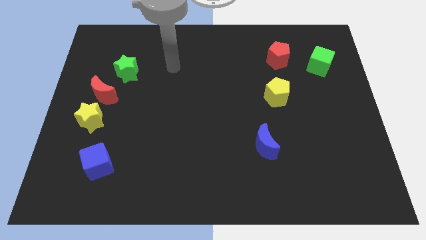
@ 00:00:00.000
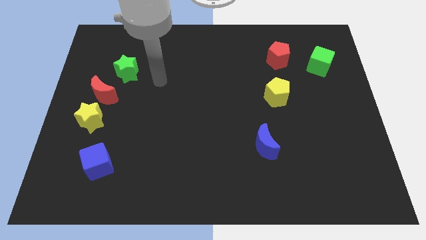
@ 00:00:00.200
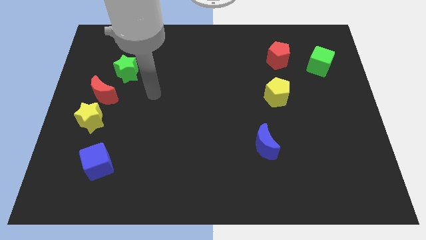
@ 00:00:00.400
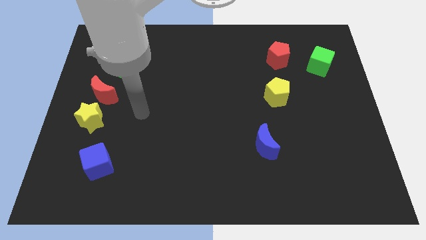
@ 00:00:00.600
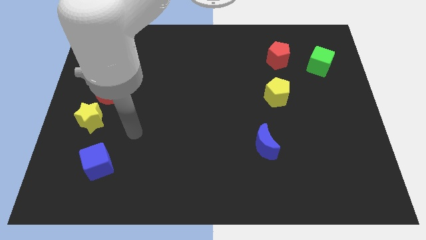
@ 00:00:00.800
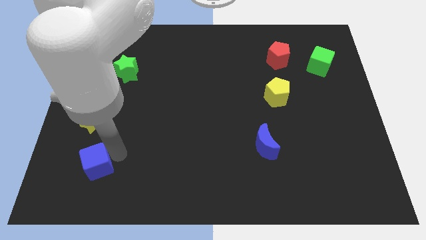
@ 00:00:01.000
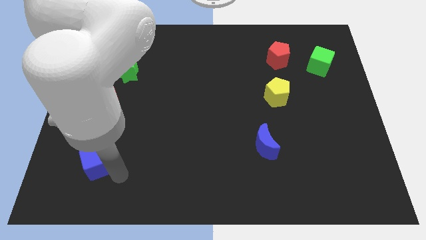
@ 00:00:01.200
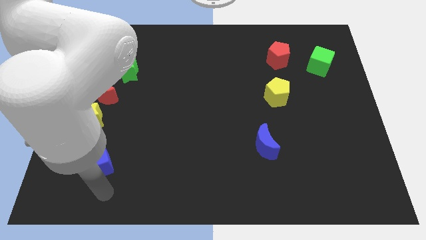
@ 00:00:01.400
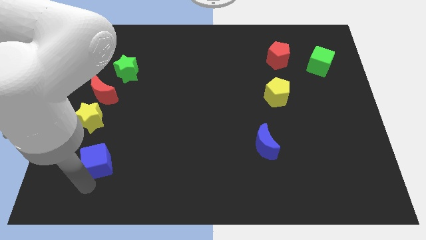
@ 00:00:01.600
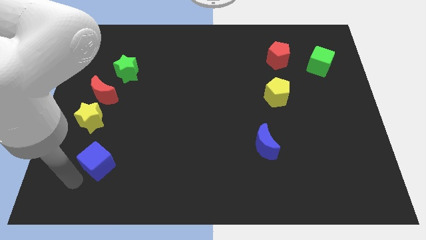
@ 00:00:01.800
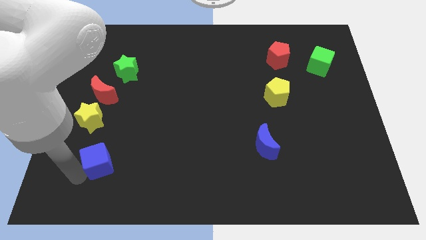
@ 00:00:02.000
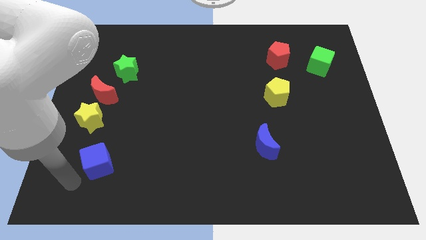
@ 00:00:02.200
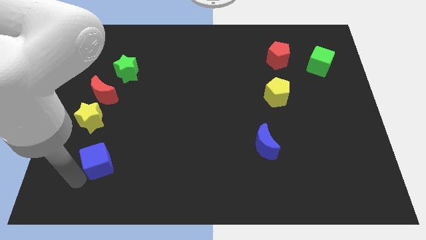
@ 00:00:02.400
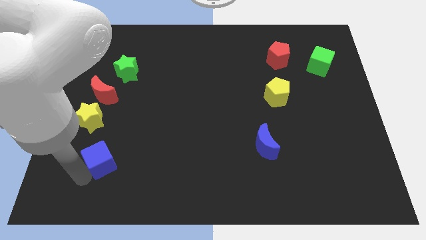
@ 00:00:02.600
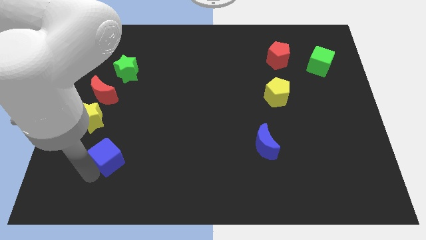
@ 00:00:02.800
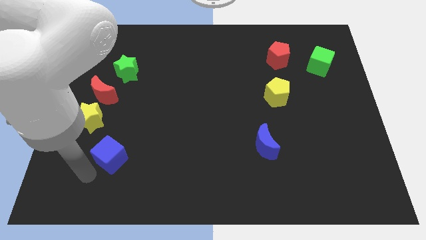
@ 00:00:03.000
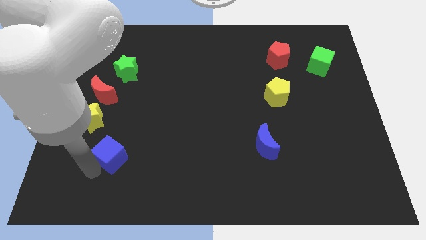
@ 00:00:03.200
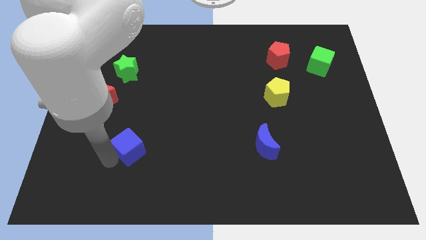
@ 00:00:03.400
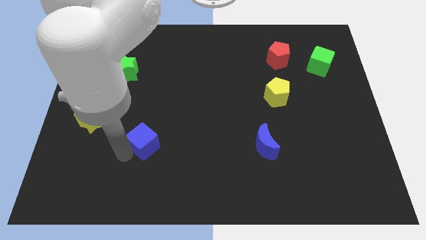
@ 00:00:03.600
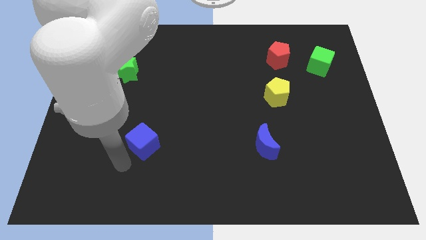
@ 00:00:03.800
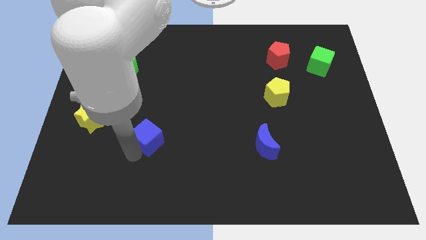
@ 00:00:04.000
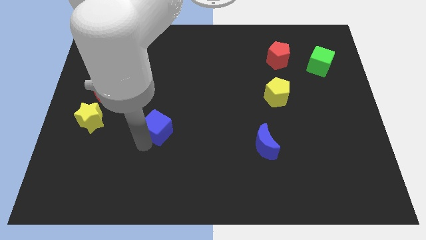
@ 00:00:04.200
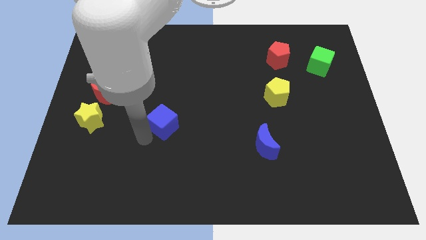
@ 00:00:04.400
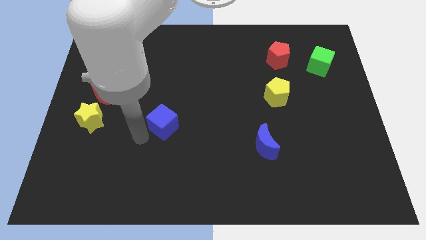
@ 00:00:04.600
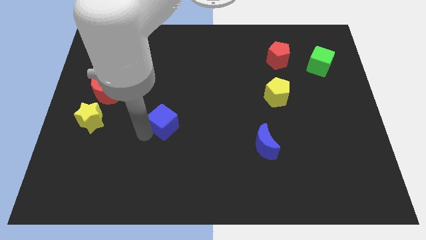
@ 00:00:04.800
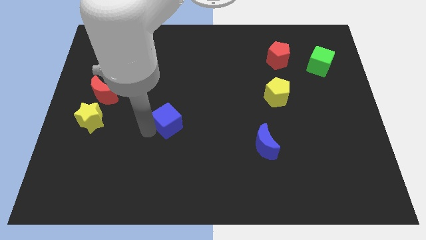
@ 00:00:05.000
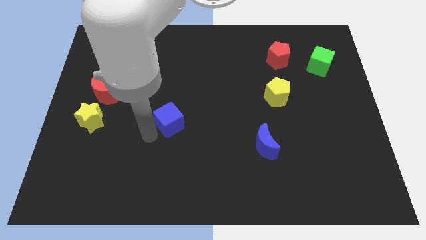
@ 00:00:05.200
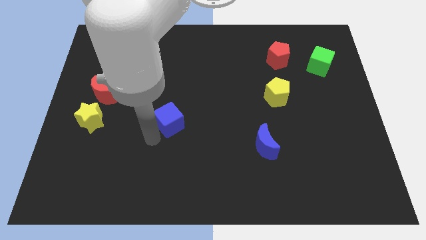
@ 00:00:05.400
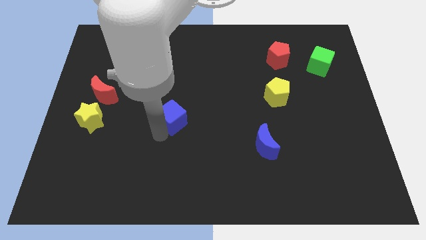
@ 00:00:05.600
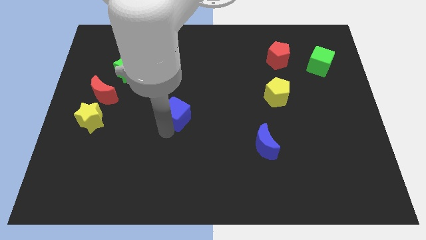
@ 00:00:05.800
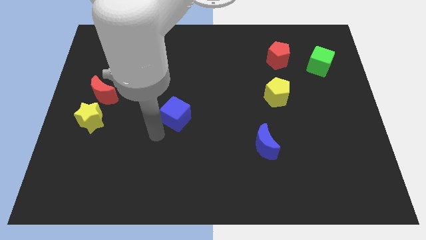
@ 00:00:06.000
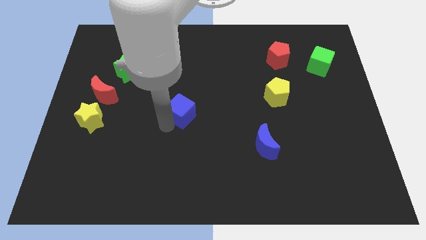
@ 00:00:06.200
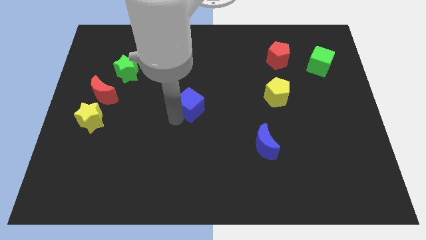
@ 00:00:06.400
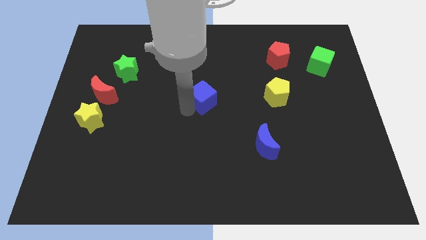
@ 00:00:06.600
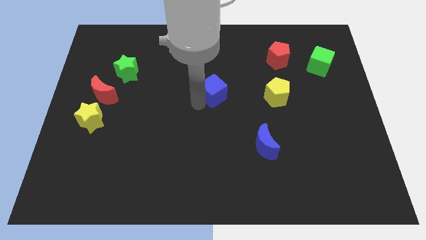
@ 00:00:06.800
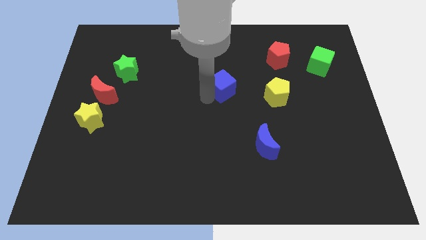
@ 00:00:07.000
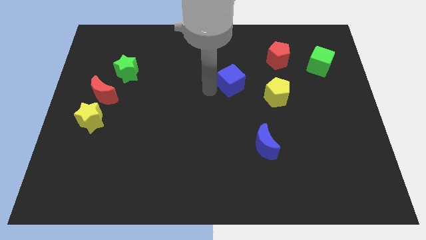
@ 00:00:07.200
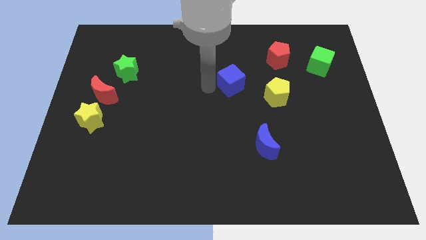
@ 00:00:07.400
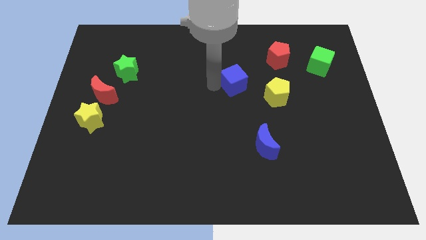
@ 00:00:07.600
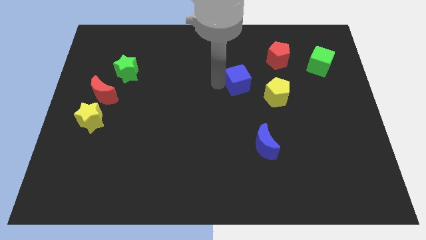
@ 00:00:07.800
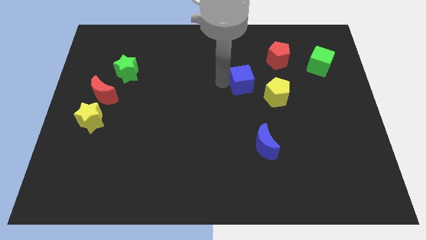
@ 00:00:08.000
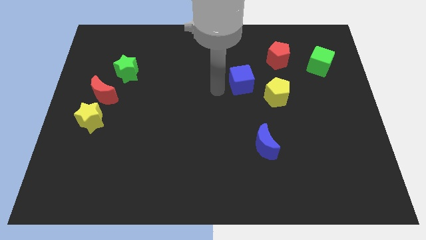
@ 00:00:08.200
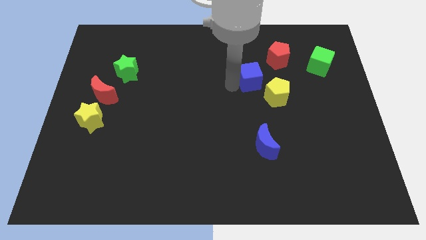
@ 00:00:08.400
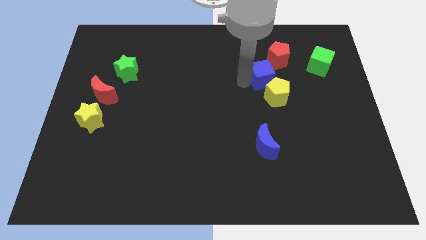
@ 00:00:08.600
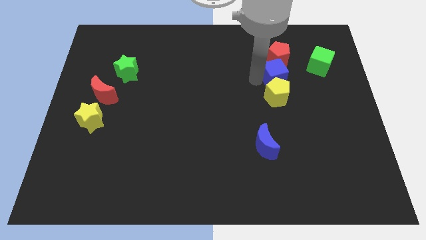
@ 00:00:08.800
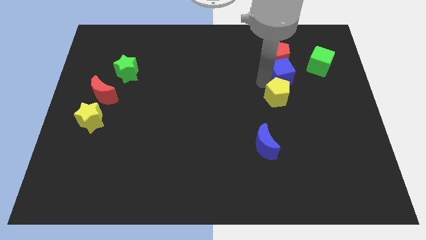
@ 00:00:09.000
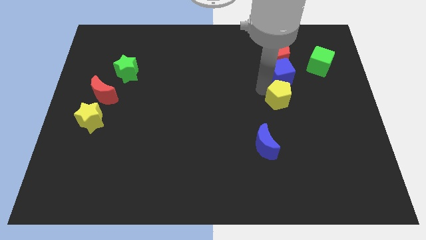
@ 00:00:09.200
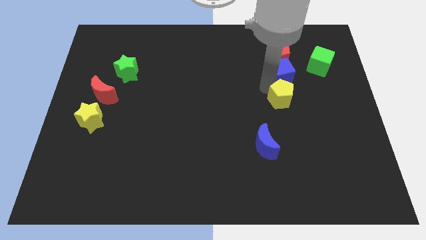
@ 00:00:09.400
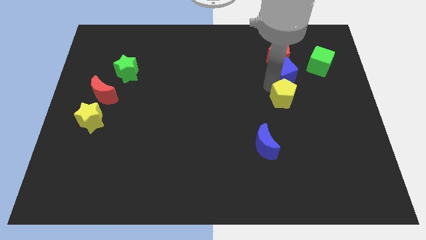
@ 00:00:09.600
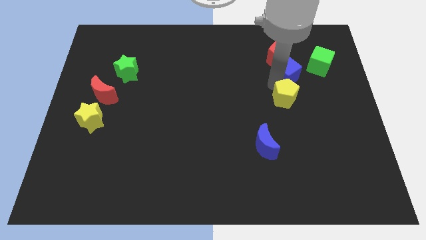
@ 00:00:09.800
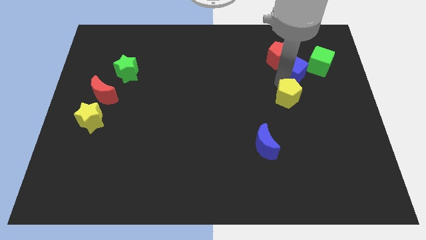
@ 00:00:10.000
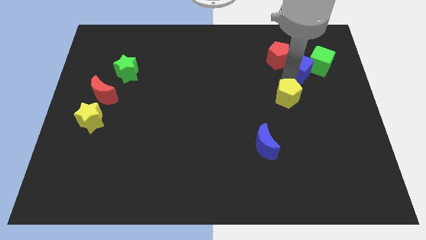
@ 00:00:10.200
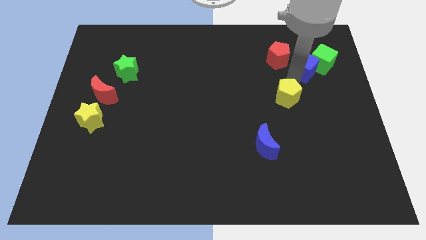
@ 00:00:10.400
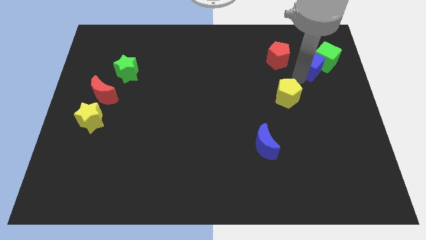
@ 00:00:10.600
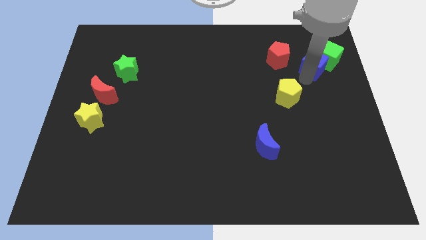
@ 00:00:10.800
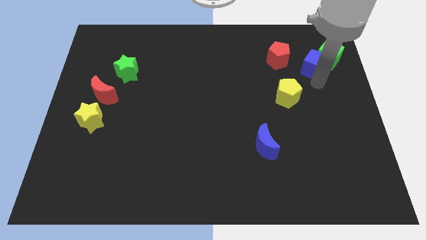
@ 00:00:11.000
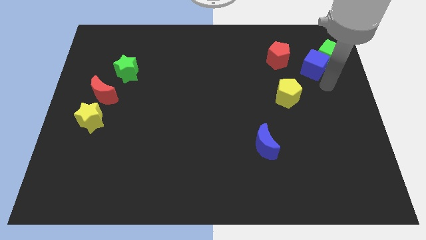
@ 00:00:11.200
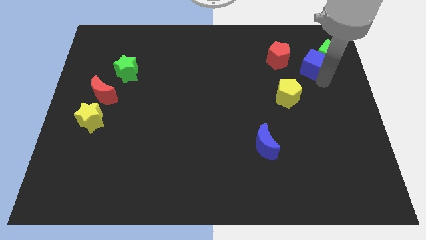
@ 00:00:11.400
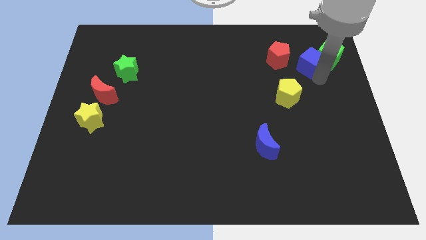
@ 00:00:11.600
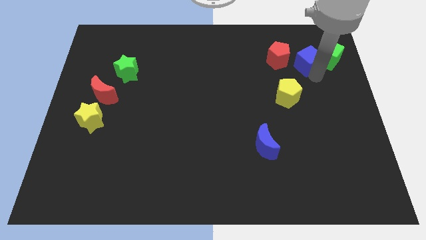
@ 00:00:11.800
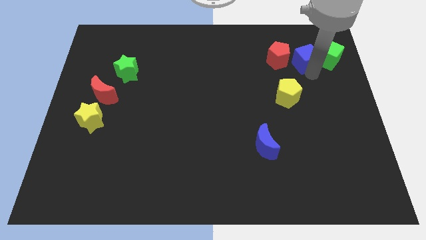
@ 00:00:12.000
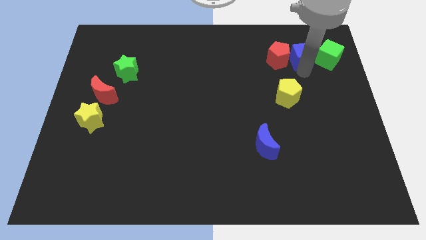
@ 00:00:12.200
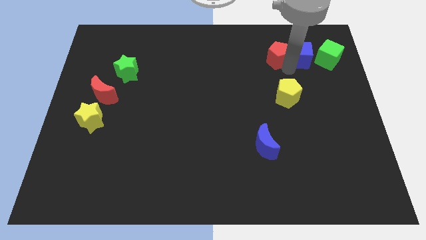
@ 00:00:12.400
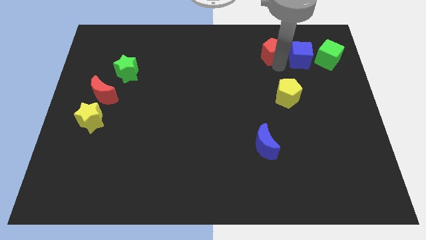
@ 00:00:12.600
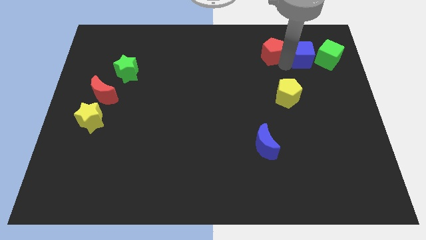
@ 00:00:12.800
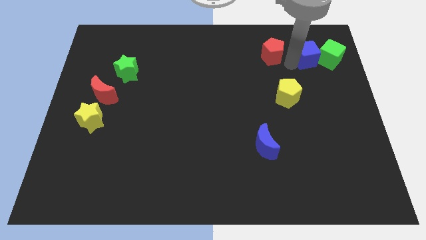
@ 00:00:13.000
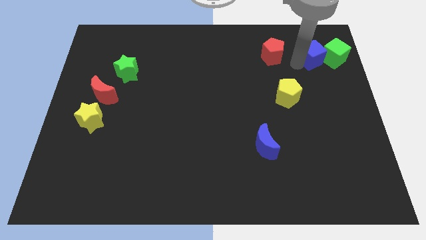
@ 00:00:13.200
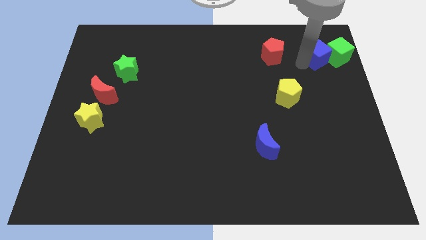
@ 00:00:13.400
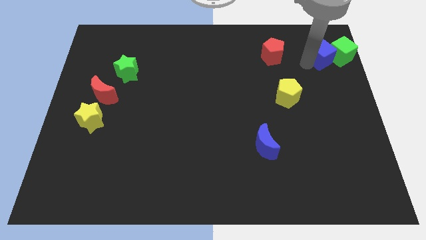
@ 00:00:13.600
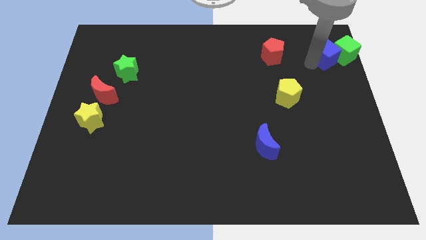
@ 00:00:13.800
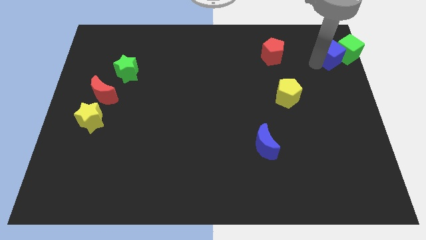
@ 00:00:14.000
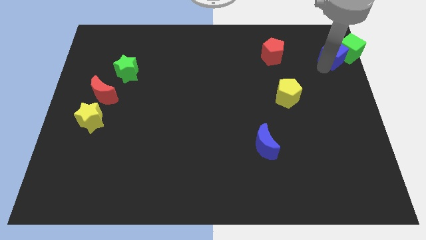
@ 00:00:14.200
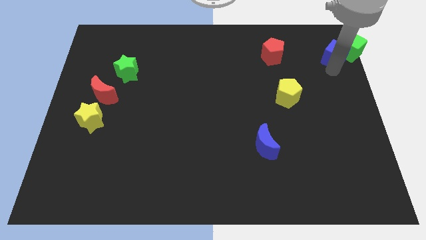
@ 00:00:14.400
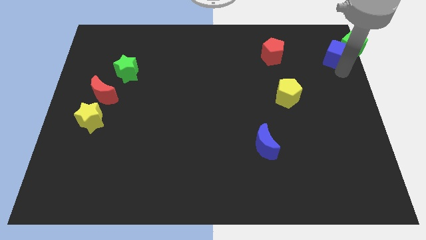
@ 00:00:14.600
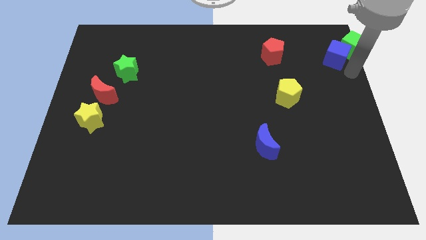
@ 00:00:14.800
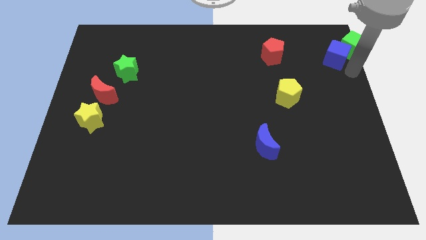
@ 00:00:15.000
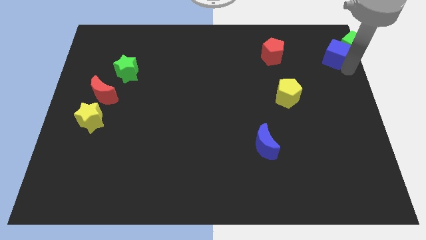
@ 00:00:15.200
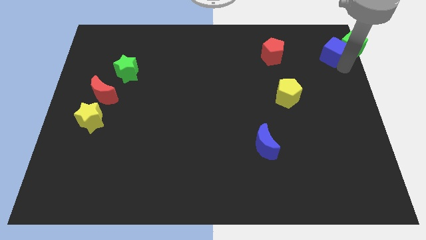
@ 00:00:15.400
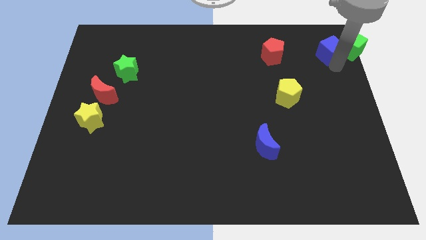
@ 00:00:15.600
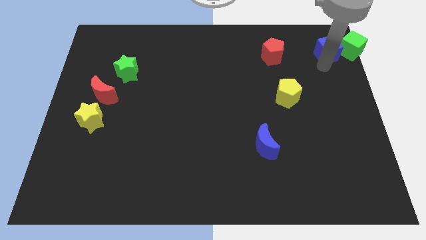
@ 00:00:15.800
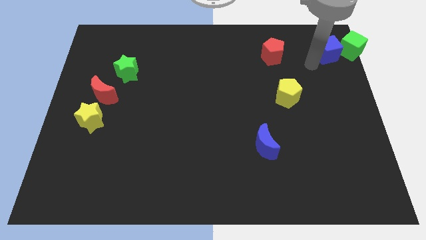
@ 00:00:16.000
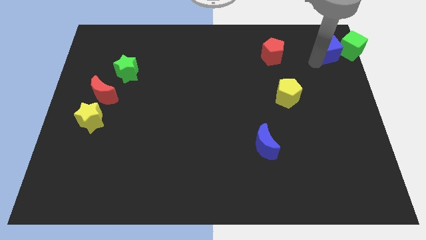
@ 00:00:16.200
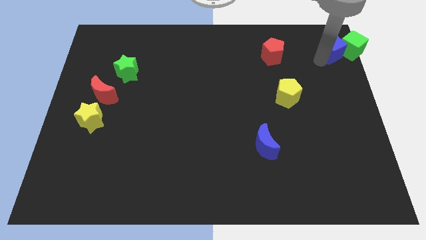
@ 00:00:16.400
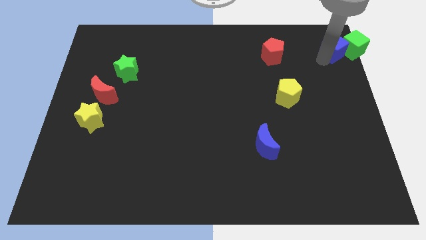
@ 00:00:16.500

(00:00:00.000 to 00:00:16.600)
put the blue cube to the top right of the board

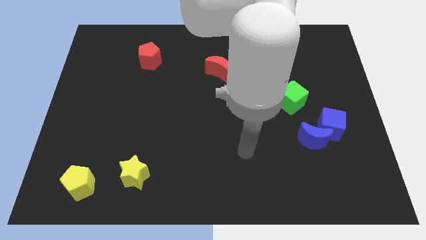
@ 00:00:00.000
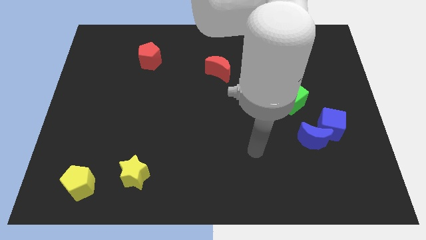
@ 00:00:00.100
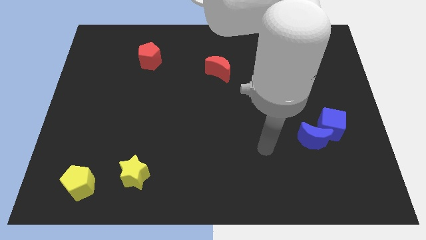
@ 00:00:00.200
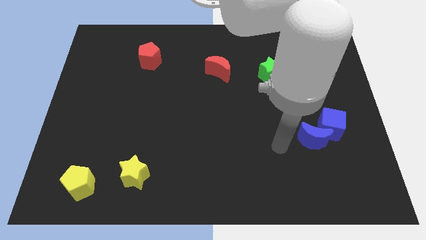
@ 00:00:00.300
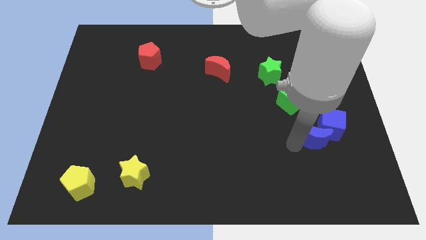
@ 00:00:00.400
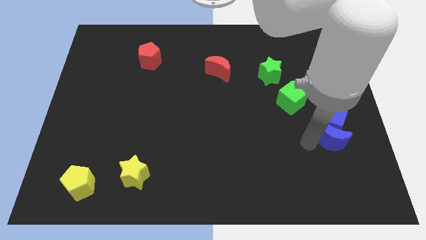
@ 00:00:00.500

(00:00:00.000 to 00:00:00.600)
move the blue cube to the center right
